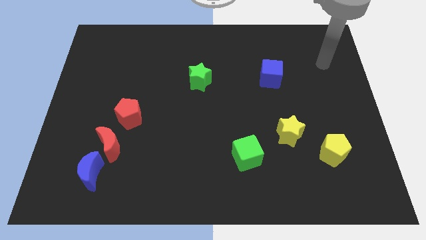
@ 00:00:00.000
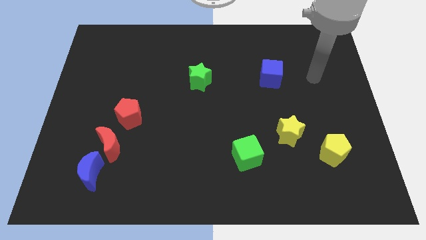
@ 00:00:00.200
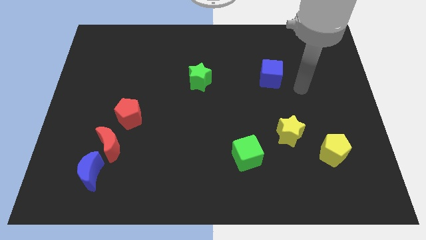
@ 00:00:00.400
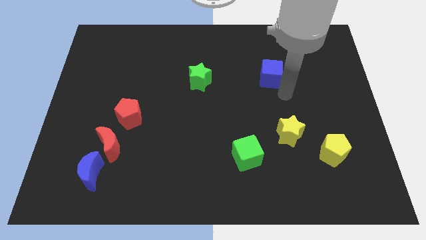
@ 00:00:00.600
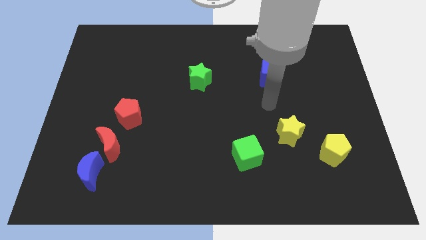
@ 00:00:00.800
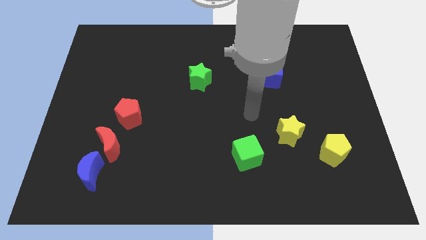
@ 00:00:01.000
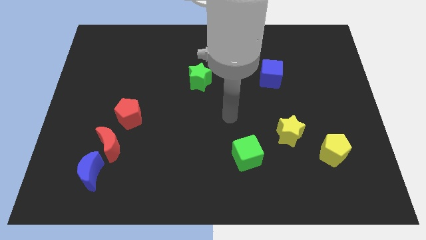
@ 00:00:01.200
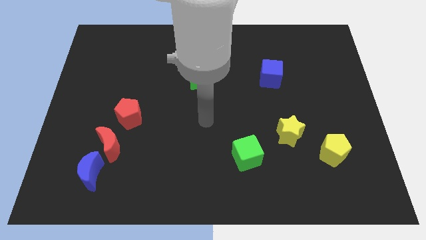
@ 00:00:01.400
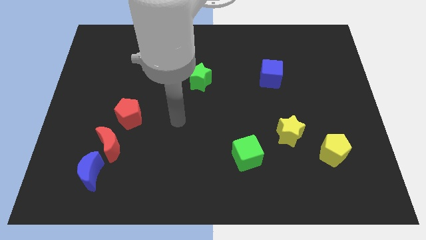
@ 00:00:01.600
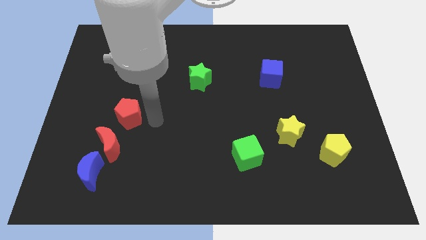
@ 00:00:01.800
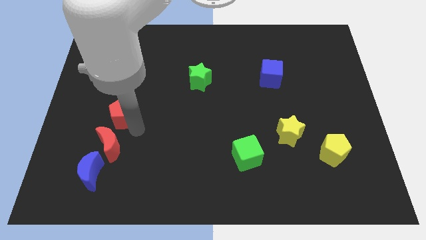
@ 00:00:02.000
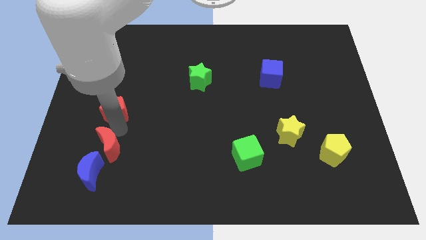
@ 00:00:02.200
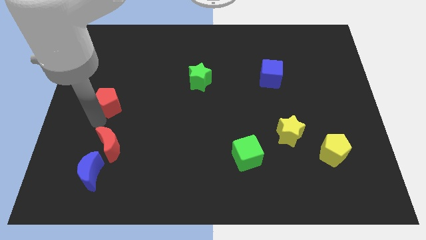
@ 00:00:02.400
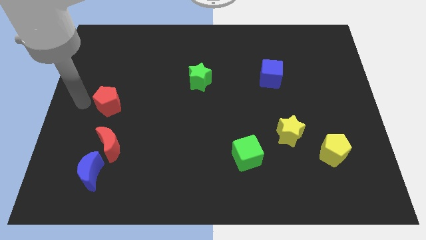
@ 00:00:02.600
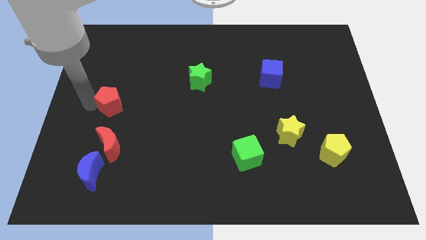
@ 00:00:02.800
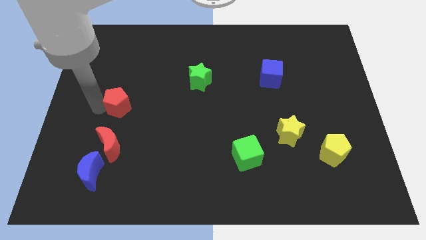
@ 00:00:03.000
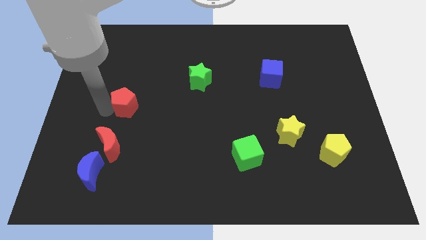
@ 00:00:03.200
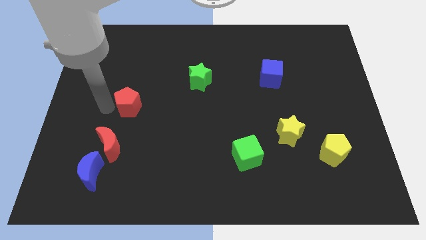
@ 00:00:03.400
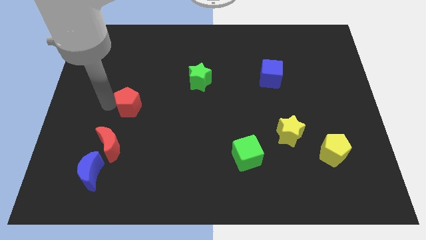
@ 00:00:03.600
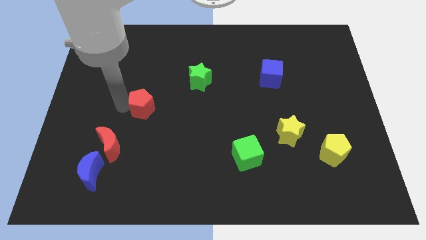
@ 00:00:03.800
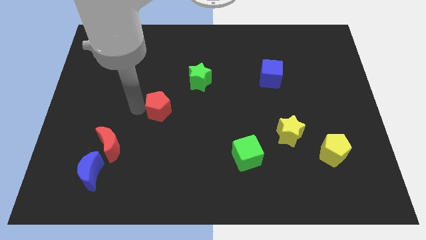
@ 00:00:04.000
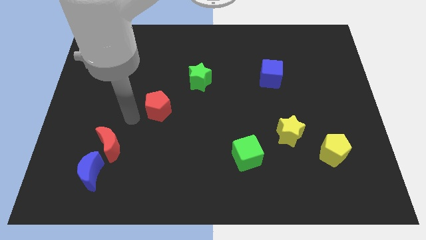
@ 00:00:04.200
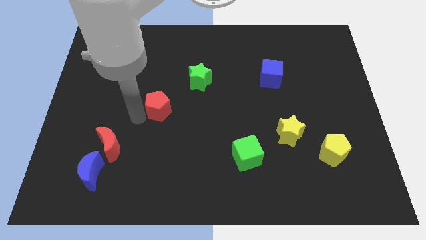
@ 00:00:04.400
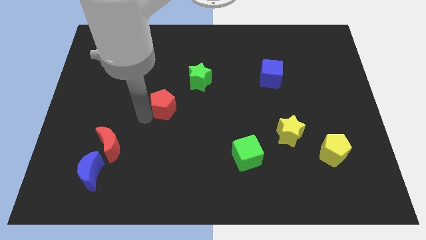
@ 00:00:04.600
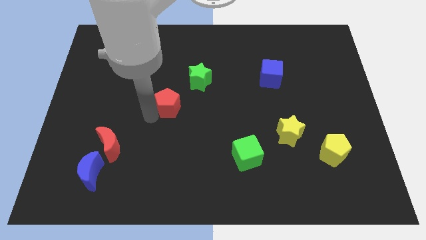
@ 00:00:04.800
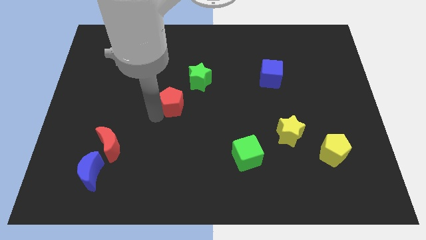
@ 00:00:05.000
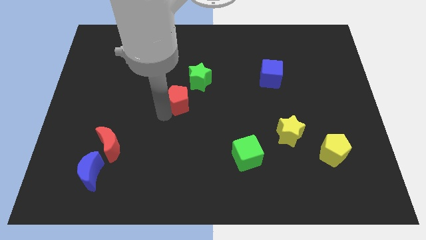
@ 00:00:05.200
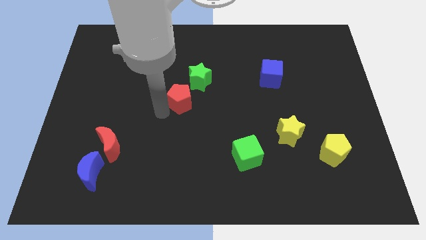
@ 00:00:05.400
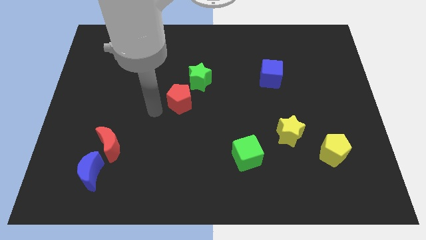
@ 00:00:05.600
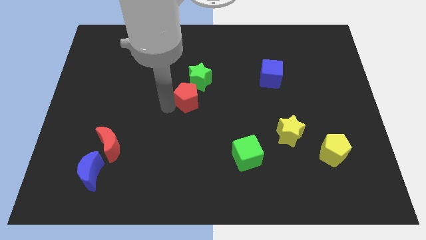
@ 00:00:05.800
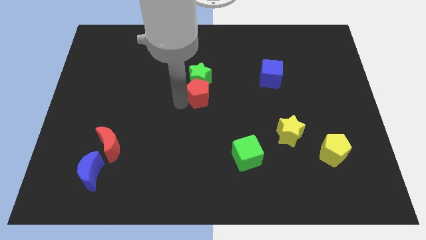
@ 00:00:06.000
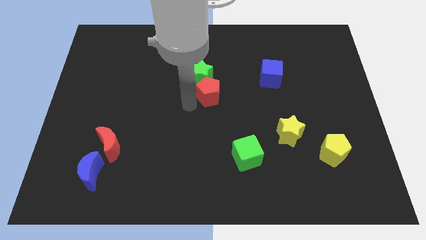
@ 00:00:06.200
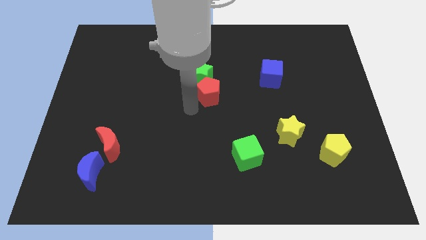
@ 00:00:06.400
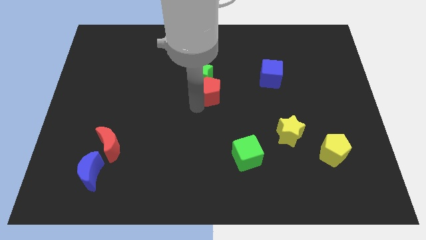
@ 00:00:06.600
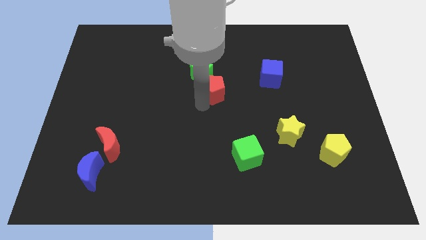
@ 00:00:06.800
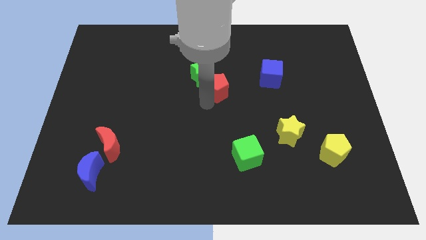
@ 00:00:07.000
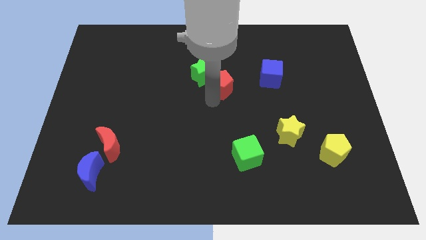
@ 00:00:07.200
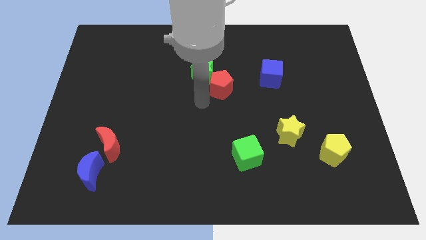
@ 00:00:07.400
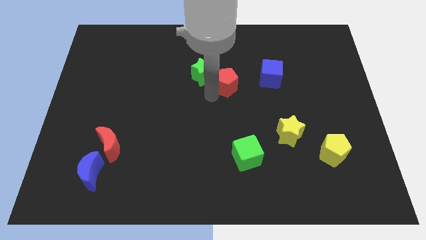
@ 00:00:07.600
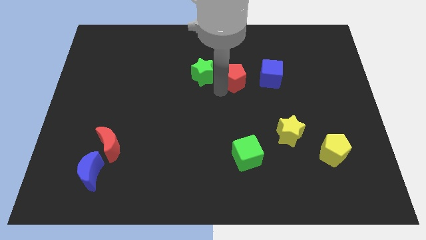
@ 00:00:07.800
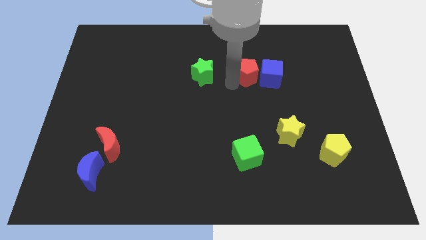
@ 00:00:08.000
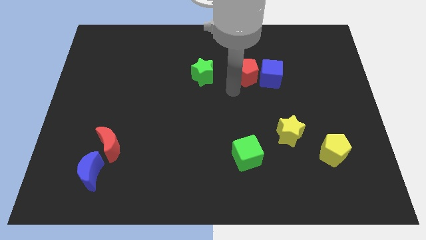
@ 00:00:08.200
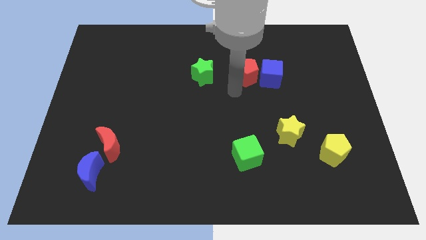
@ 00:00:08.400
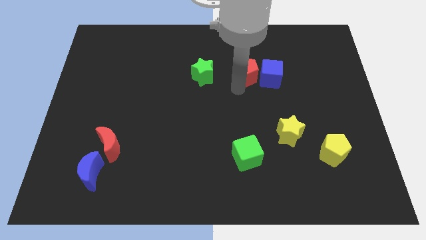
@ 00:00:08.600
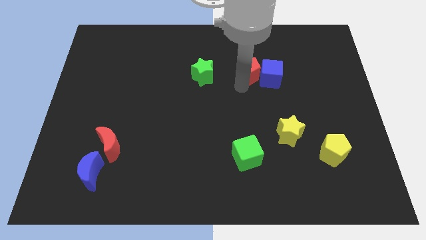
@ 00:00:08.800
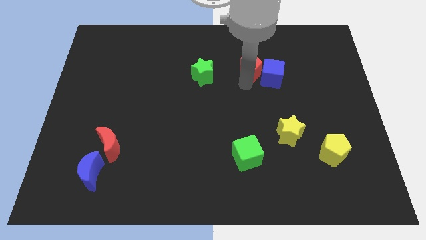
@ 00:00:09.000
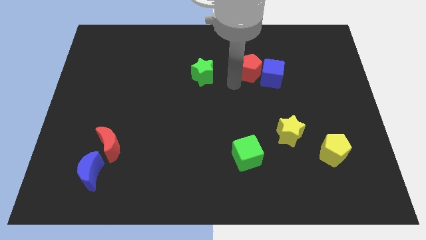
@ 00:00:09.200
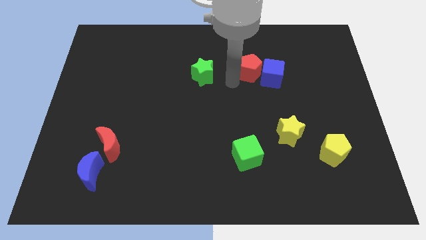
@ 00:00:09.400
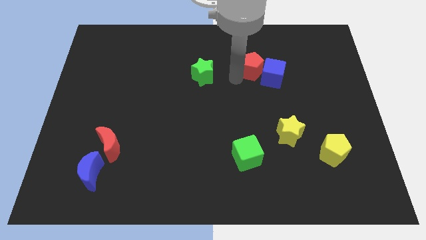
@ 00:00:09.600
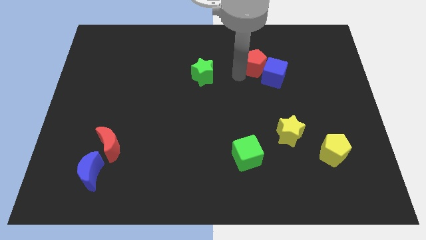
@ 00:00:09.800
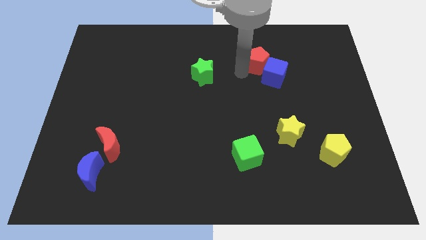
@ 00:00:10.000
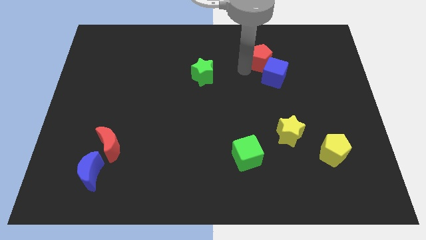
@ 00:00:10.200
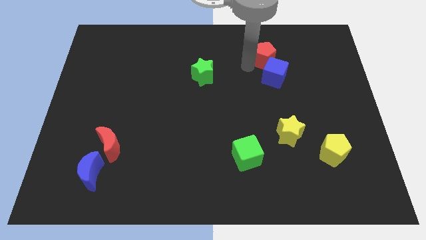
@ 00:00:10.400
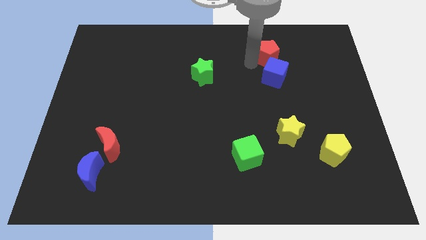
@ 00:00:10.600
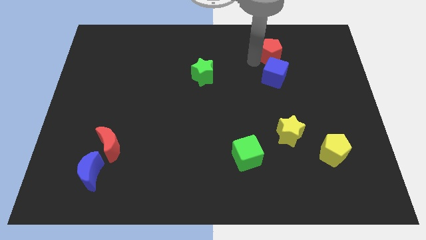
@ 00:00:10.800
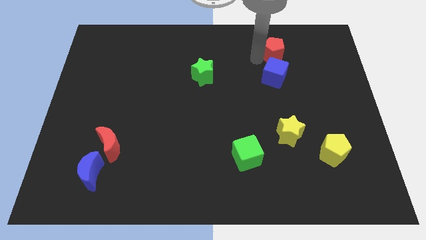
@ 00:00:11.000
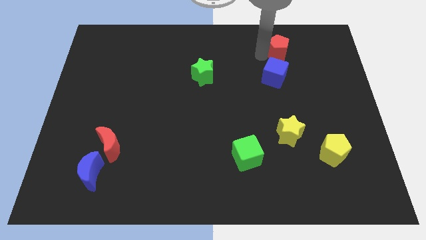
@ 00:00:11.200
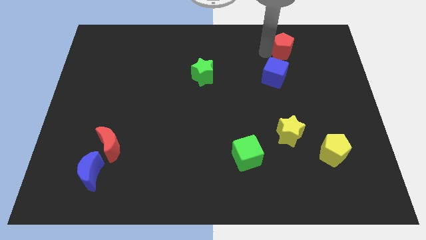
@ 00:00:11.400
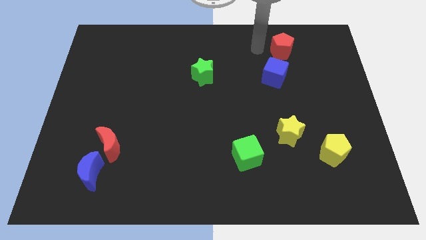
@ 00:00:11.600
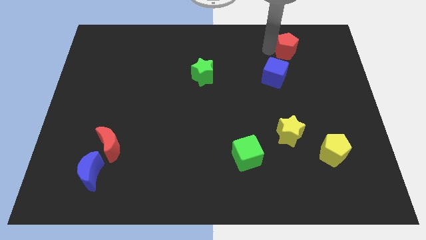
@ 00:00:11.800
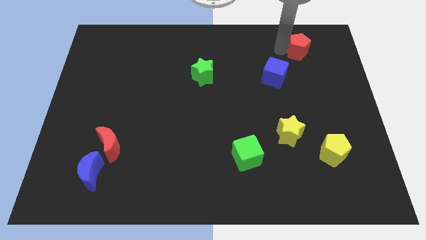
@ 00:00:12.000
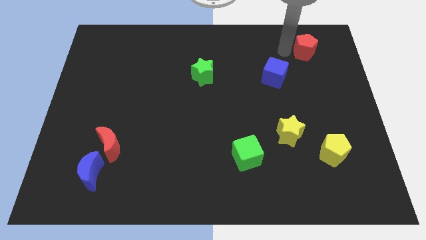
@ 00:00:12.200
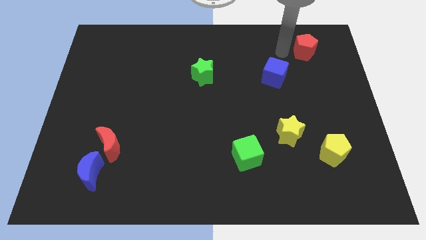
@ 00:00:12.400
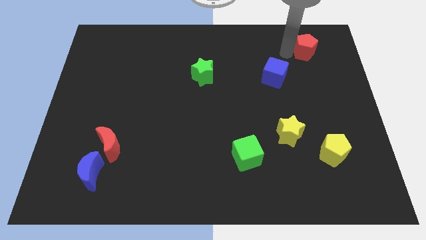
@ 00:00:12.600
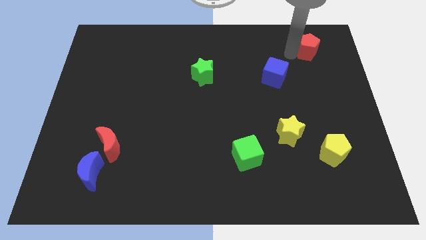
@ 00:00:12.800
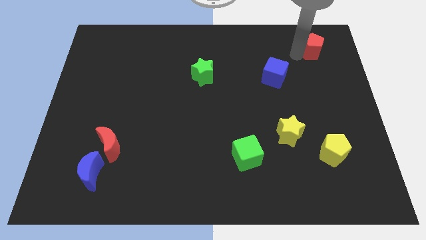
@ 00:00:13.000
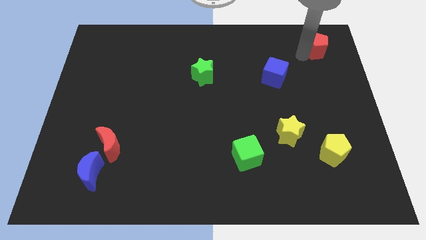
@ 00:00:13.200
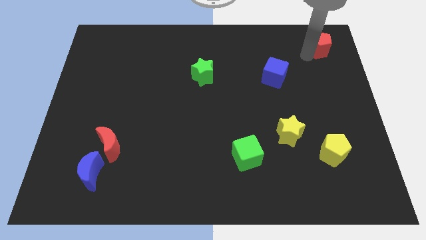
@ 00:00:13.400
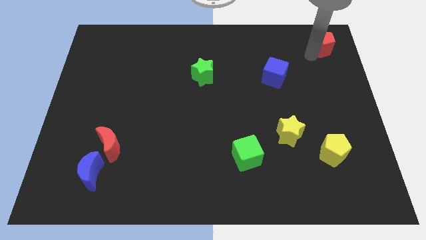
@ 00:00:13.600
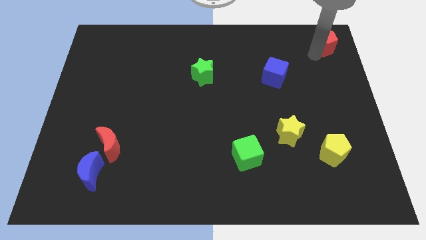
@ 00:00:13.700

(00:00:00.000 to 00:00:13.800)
slide the red pentagon to the upper right corner
